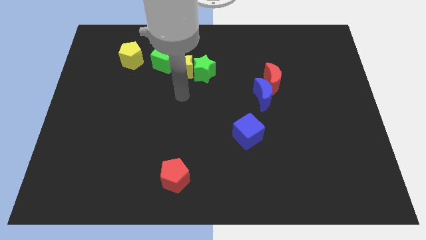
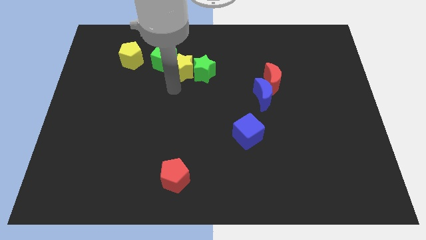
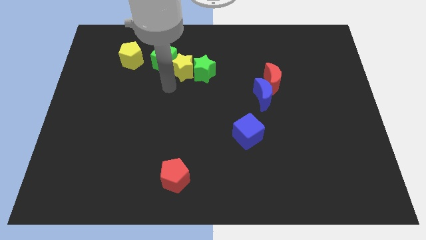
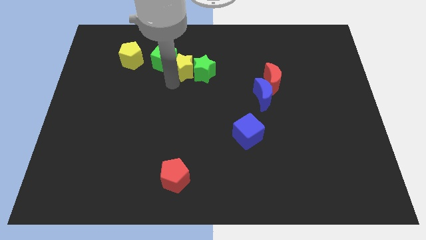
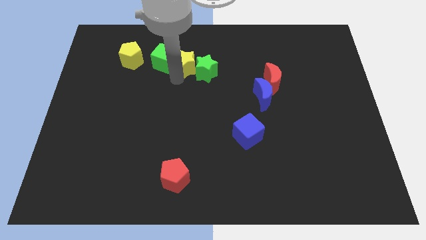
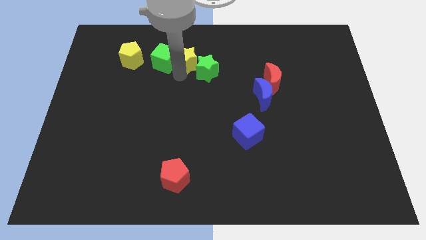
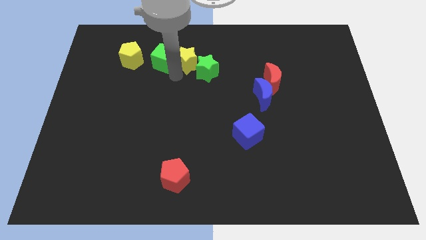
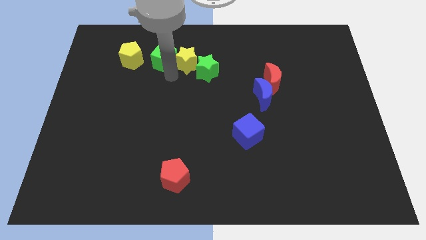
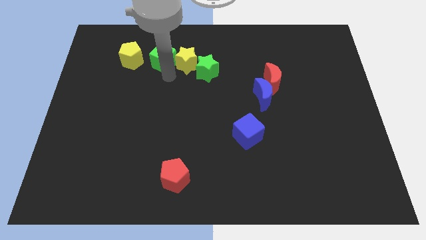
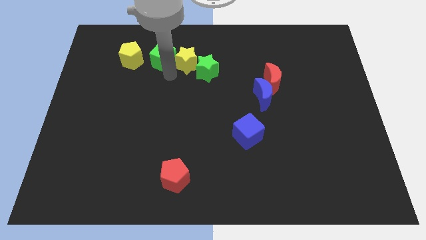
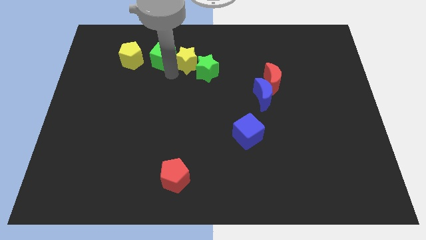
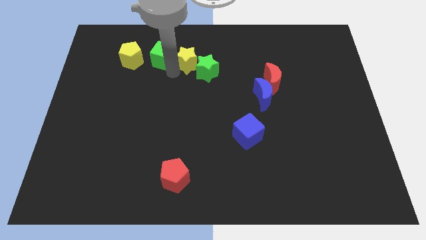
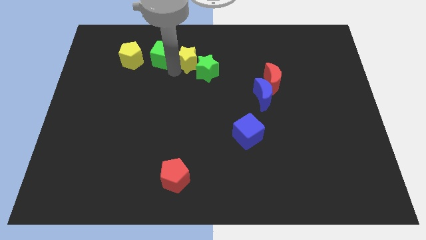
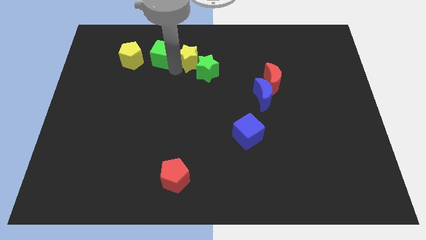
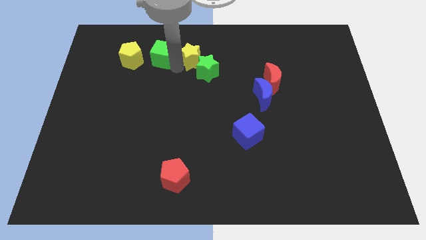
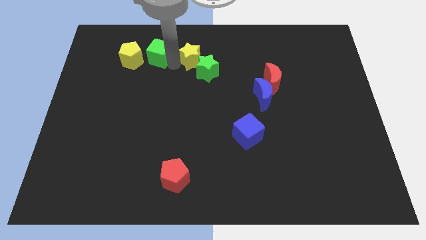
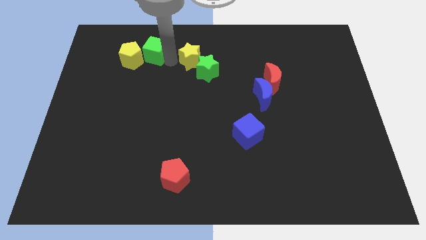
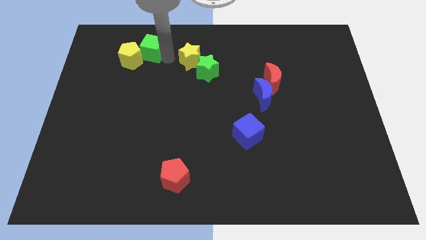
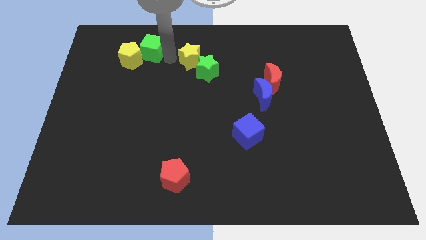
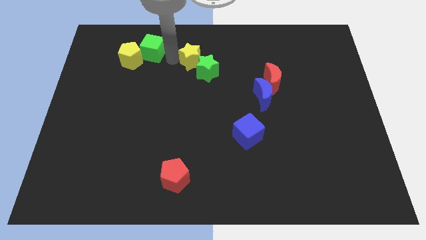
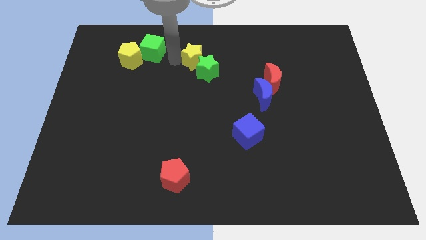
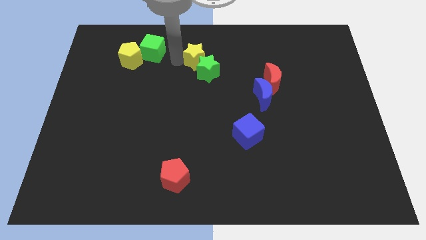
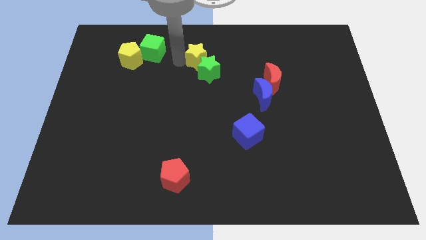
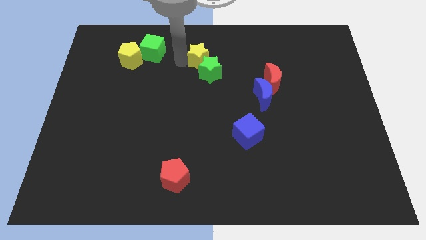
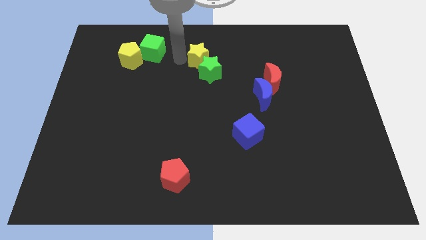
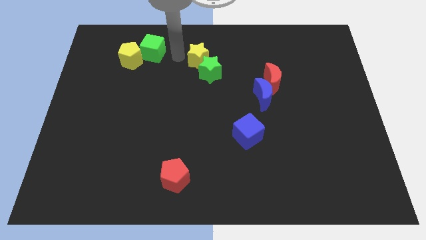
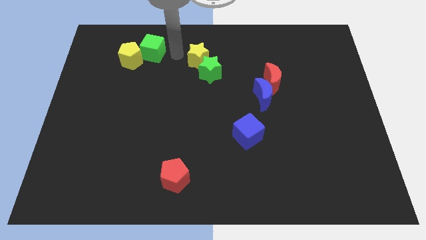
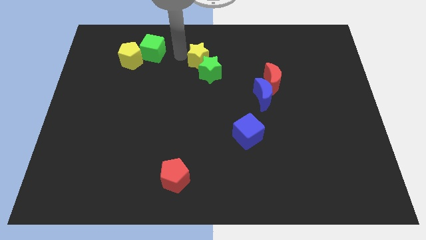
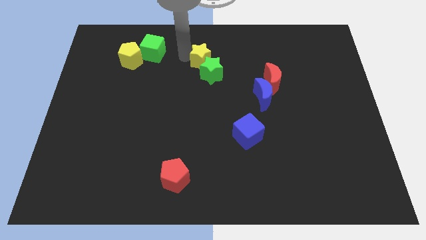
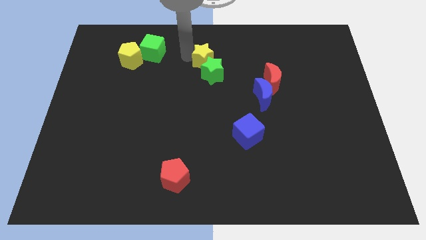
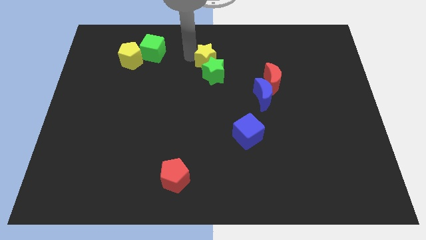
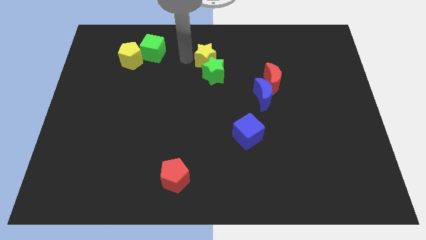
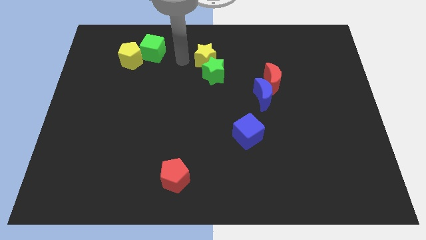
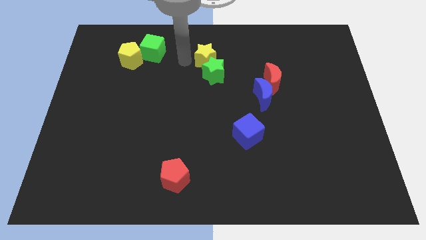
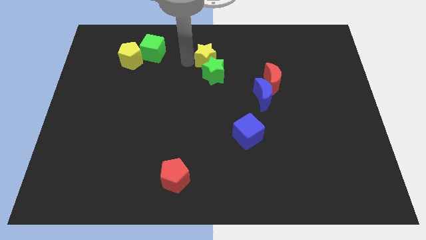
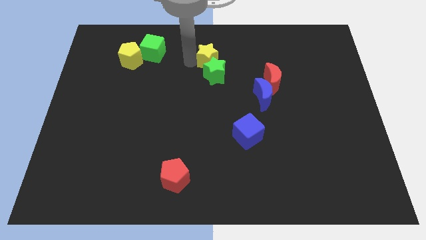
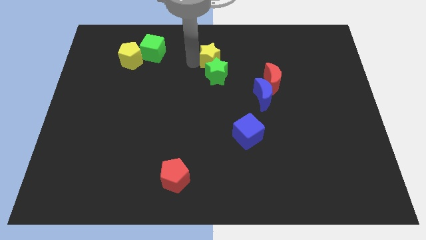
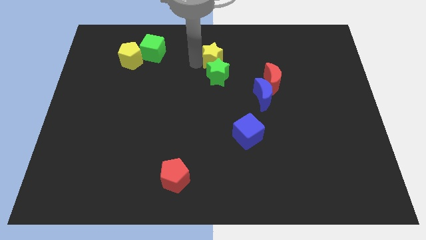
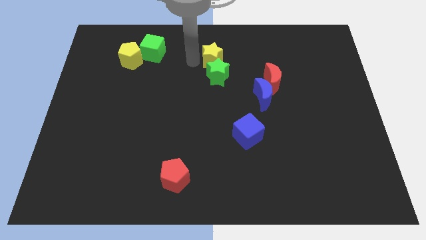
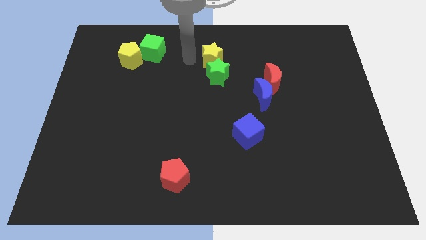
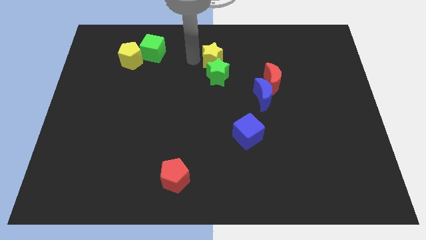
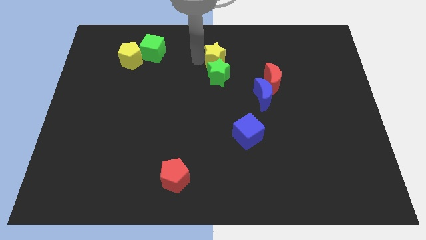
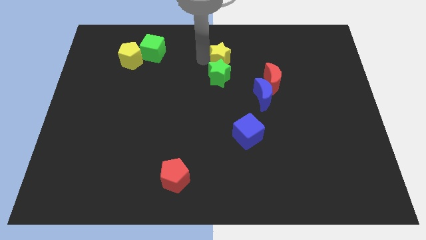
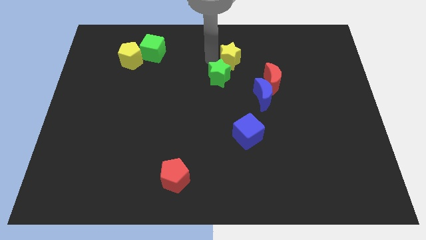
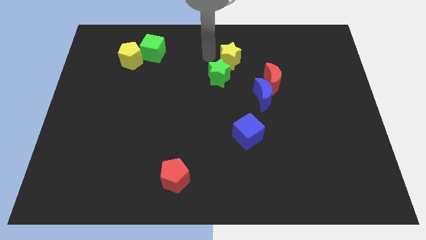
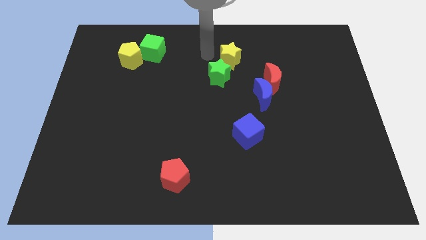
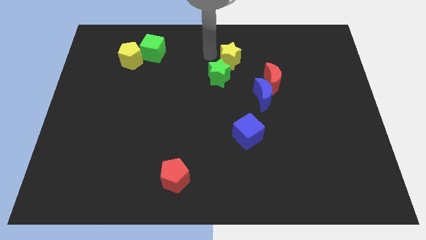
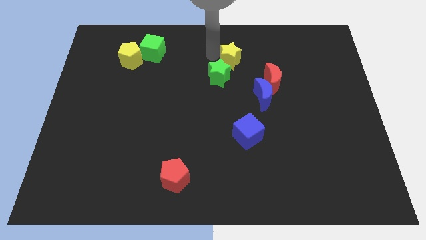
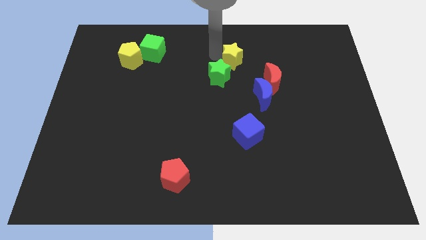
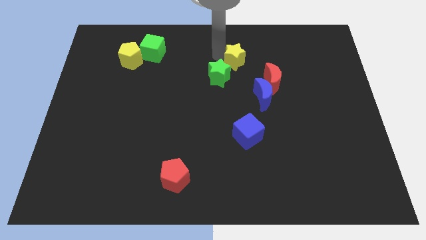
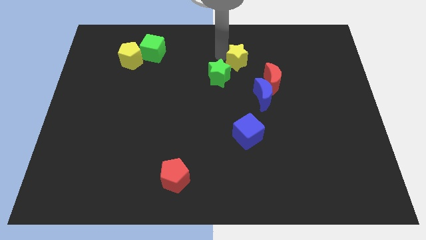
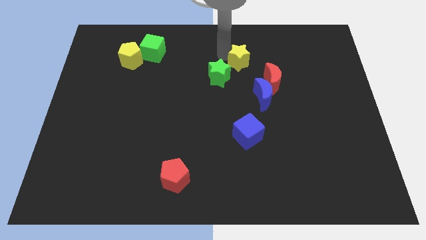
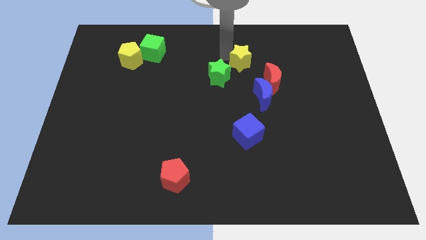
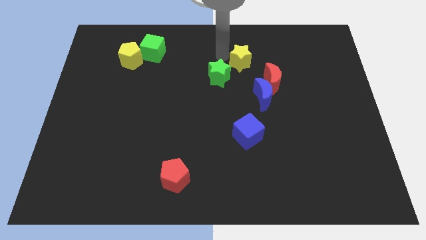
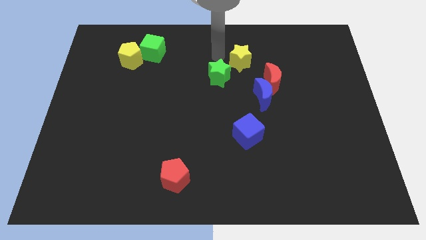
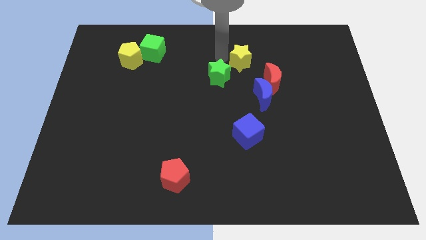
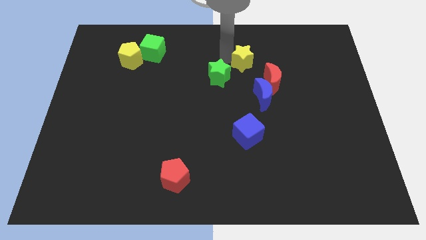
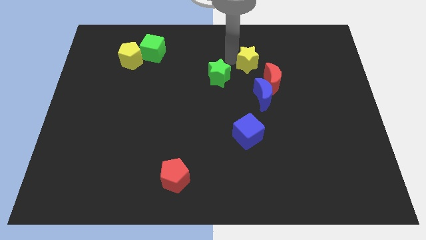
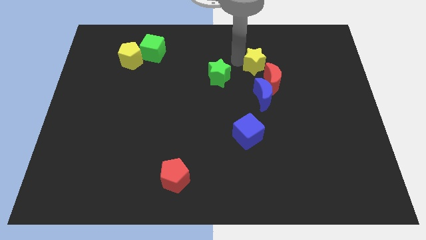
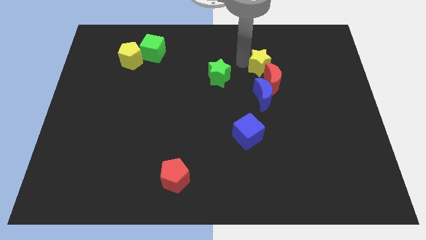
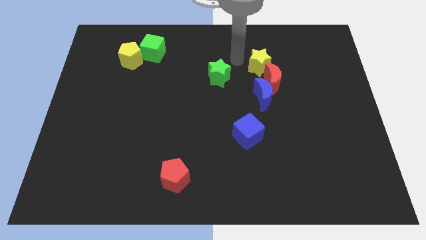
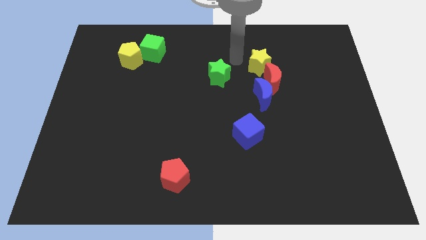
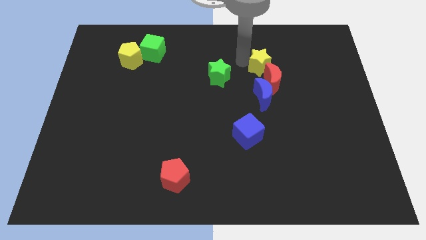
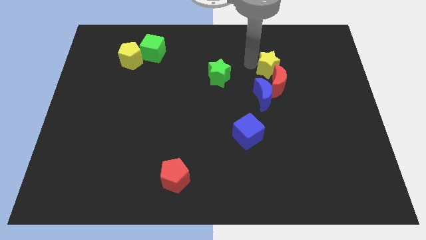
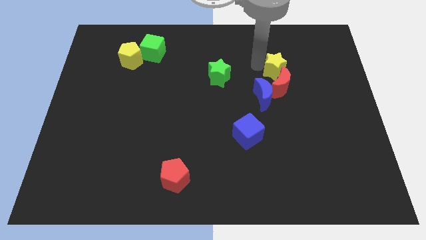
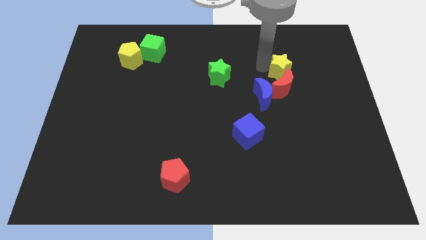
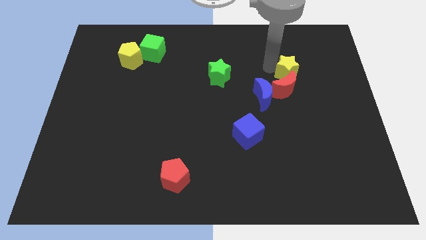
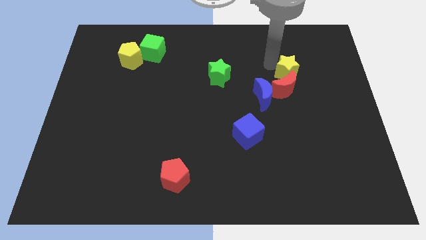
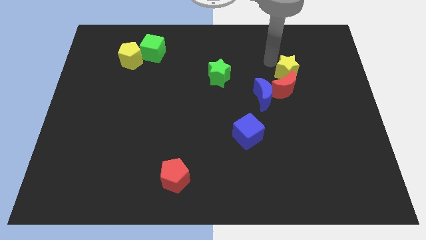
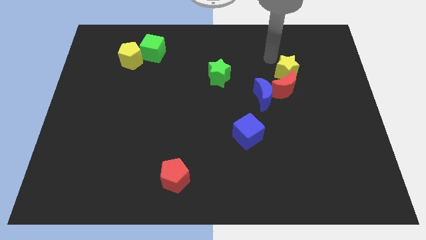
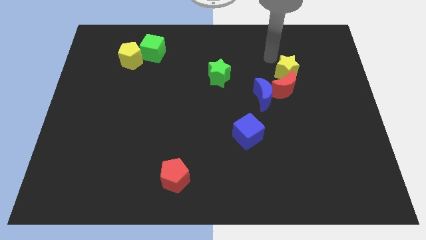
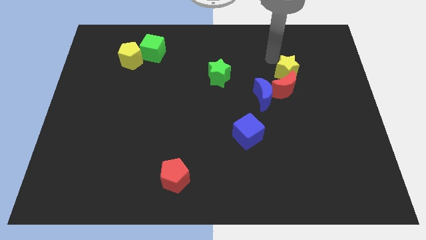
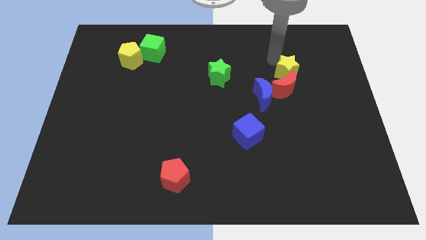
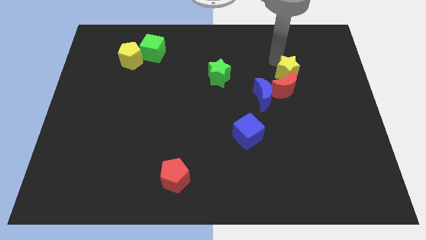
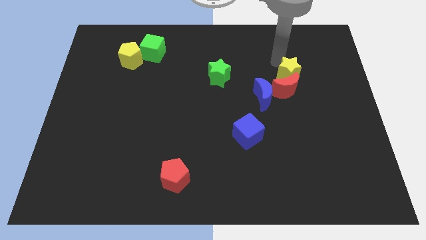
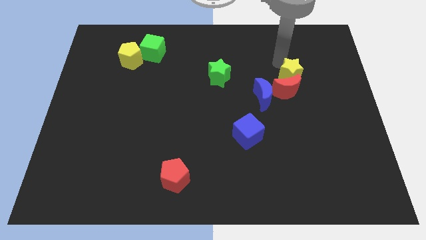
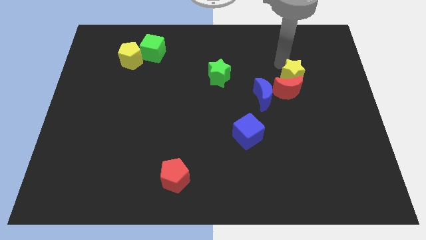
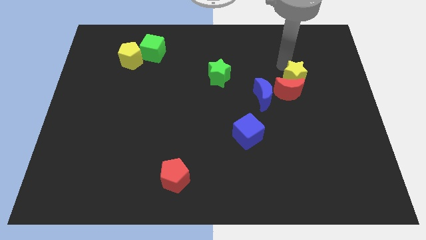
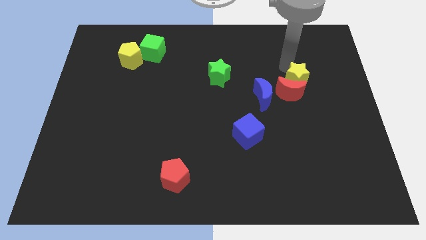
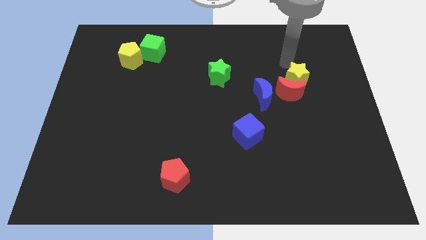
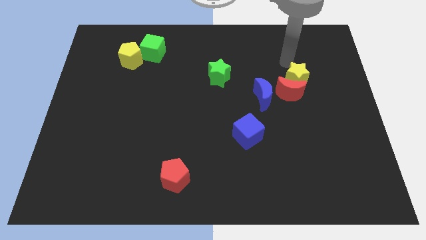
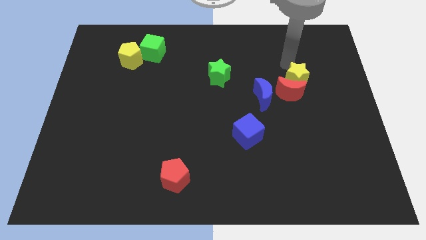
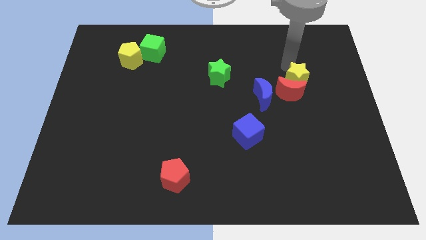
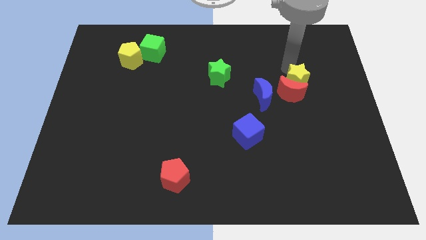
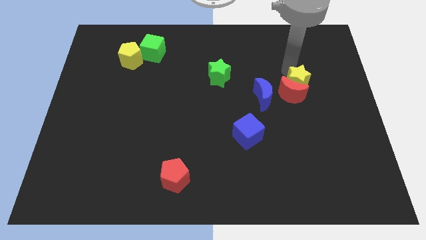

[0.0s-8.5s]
put the yellow star right of the blue moon
